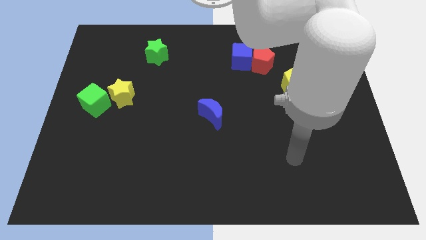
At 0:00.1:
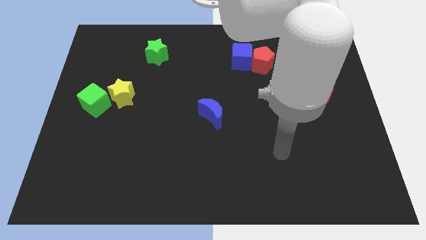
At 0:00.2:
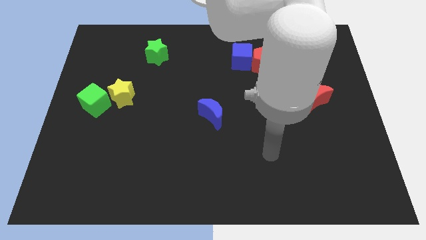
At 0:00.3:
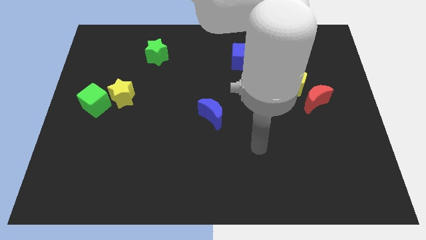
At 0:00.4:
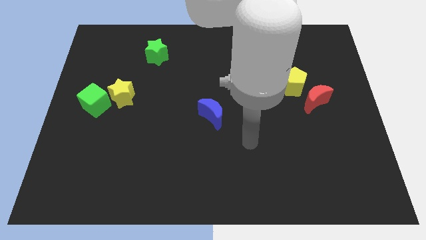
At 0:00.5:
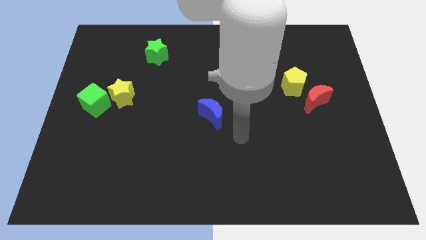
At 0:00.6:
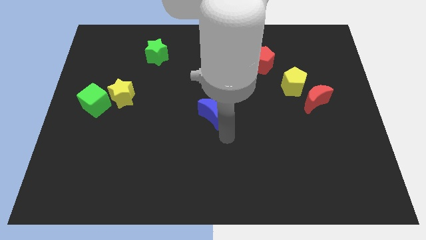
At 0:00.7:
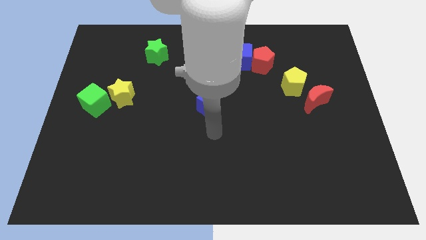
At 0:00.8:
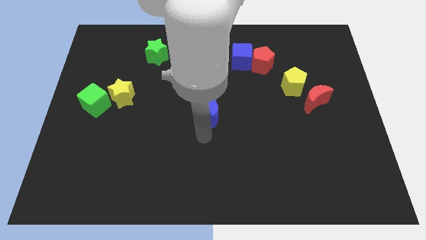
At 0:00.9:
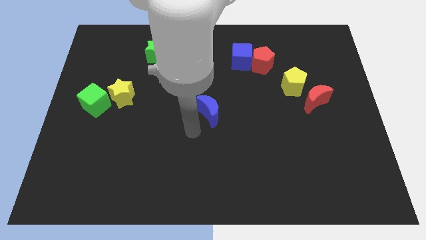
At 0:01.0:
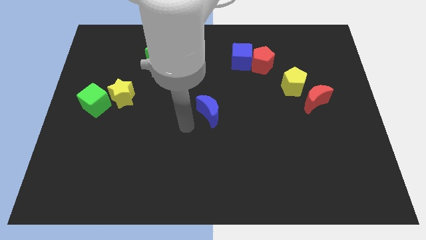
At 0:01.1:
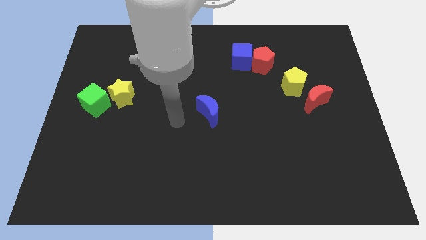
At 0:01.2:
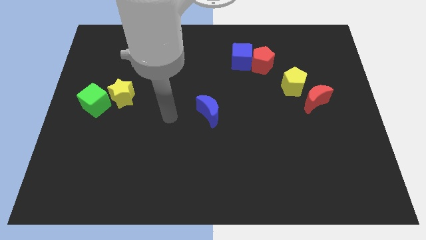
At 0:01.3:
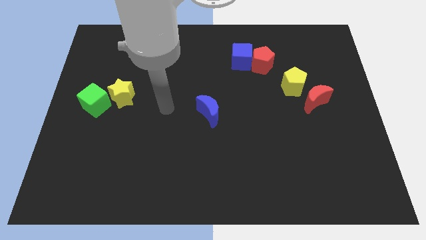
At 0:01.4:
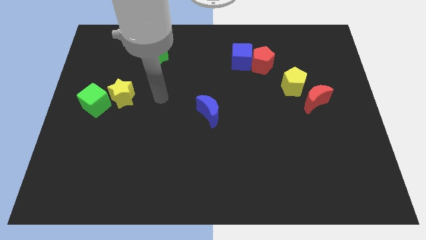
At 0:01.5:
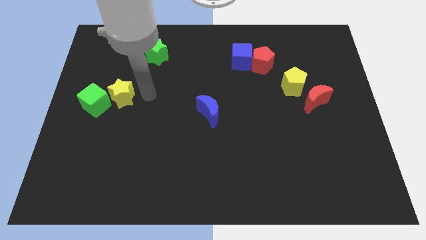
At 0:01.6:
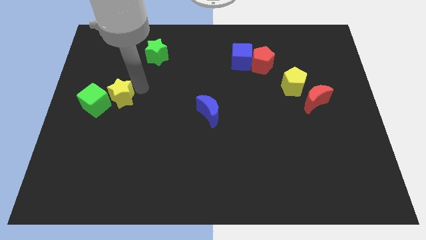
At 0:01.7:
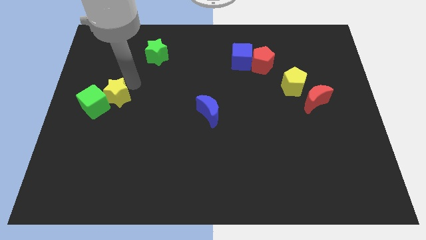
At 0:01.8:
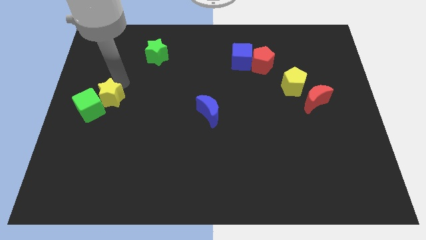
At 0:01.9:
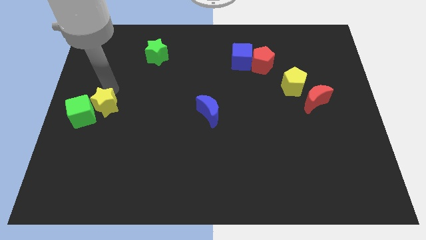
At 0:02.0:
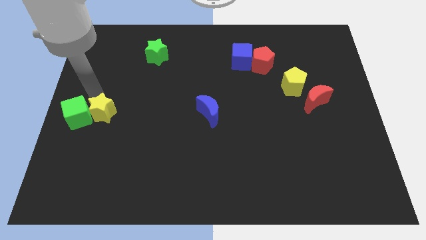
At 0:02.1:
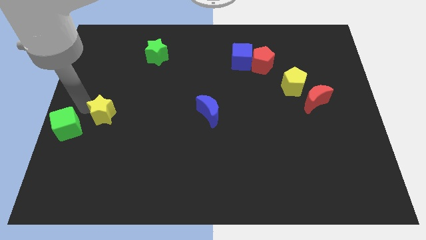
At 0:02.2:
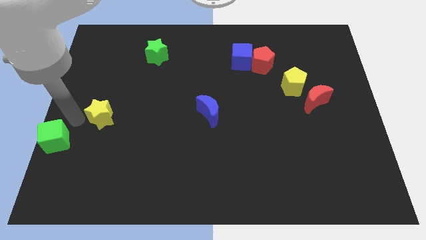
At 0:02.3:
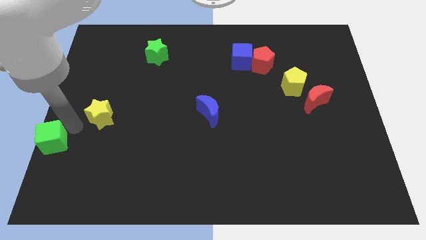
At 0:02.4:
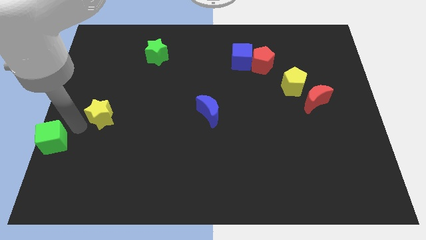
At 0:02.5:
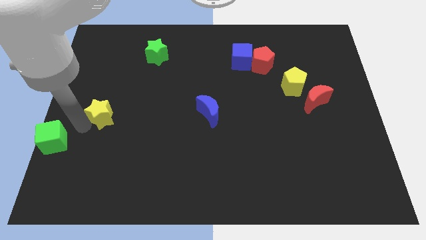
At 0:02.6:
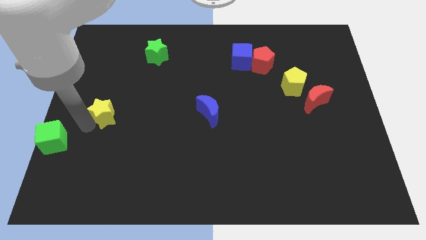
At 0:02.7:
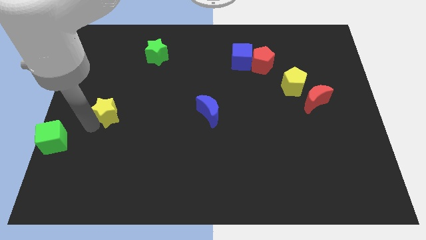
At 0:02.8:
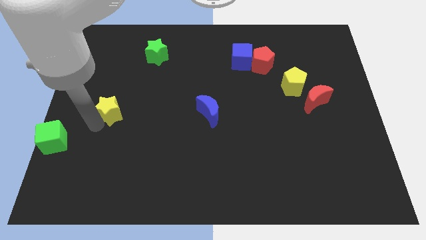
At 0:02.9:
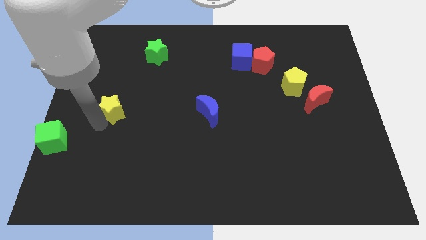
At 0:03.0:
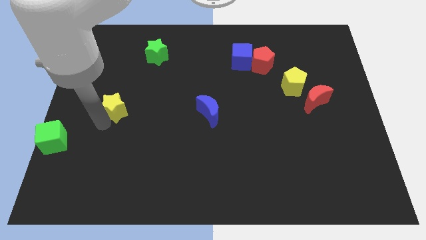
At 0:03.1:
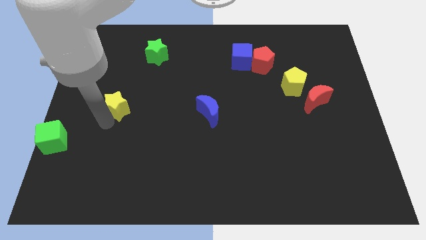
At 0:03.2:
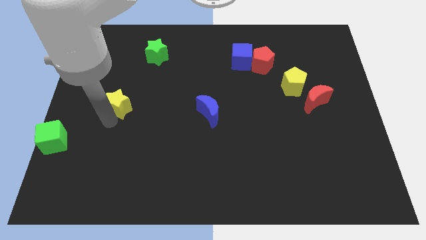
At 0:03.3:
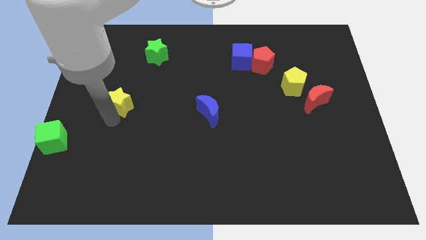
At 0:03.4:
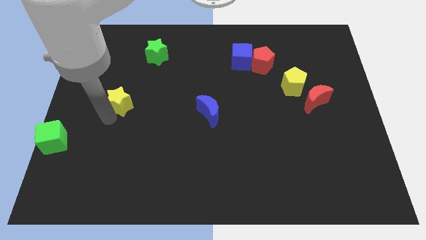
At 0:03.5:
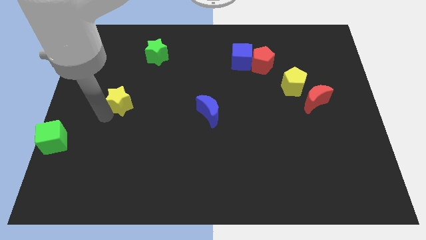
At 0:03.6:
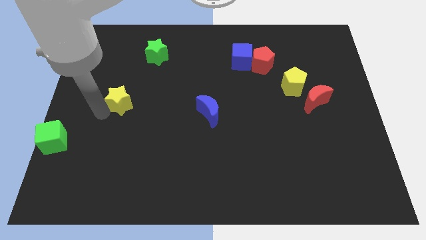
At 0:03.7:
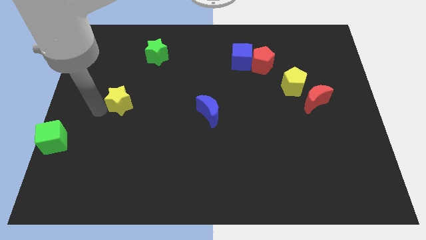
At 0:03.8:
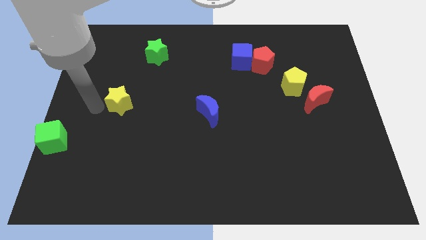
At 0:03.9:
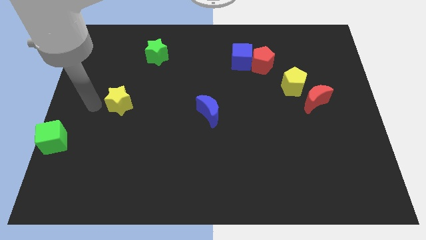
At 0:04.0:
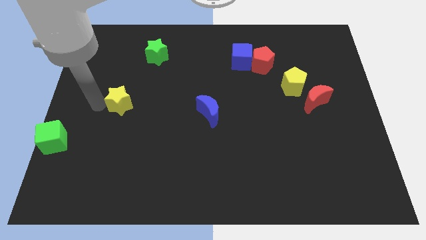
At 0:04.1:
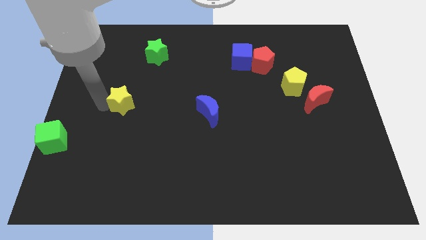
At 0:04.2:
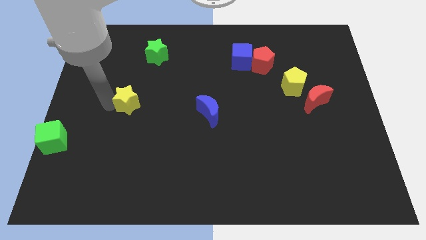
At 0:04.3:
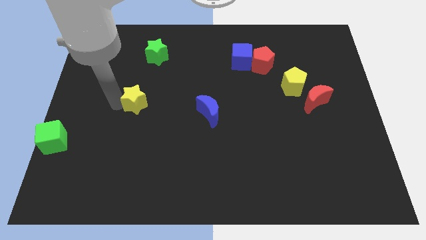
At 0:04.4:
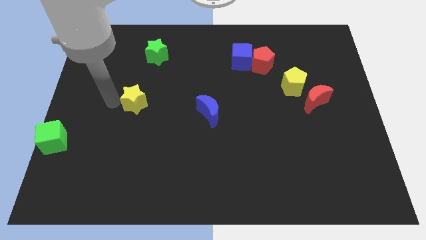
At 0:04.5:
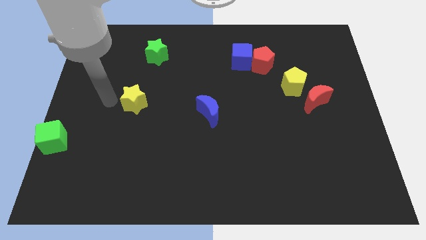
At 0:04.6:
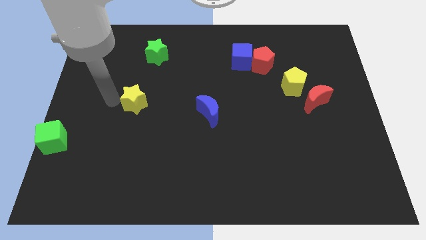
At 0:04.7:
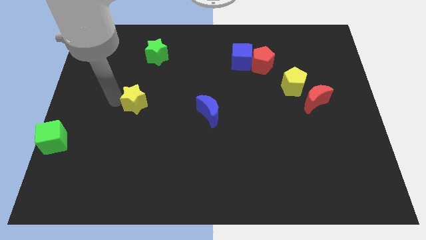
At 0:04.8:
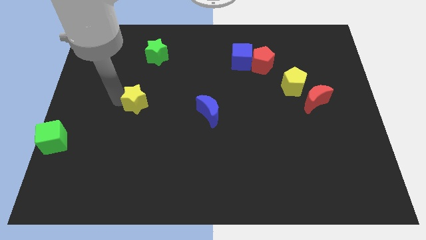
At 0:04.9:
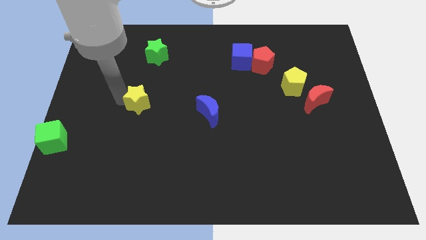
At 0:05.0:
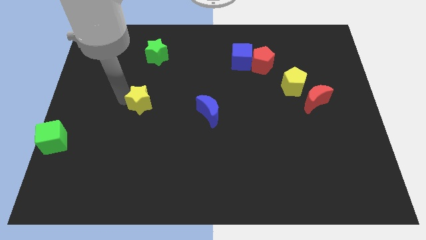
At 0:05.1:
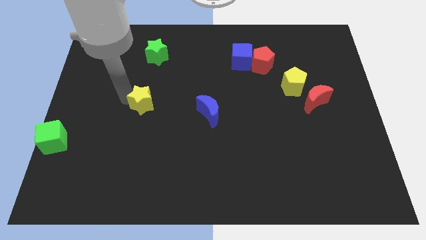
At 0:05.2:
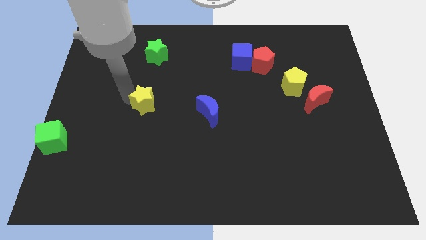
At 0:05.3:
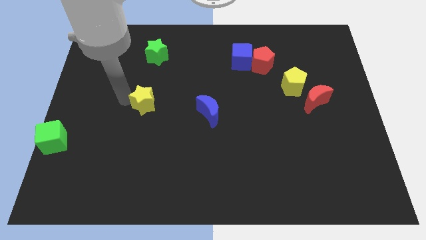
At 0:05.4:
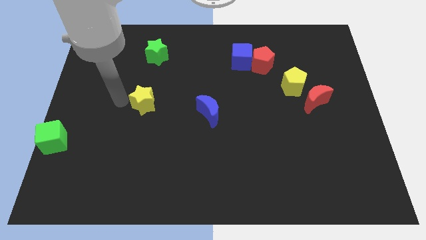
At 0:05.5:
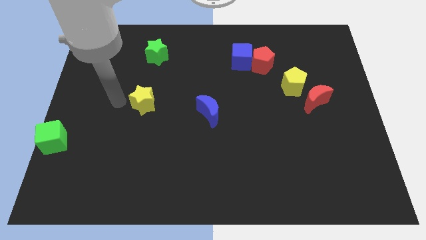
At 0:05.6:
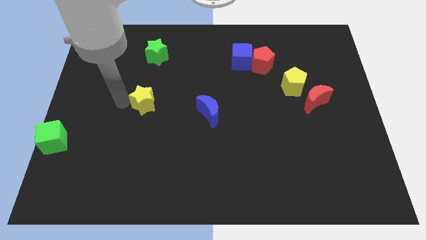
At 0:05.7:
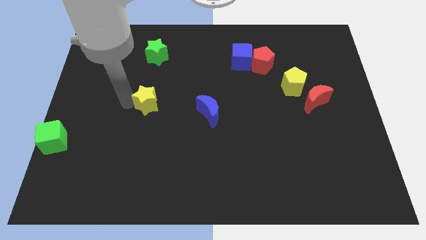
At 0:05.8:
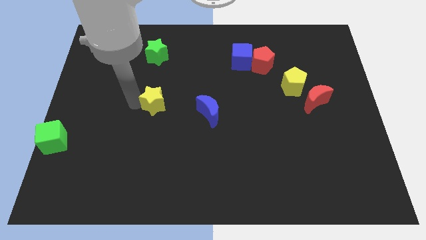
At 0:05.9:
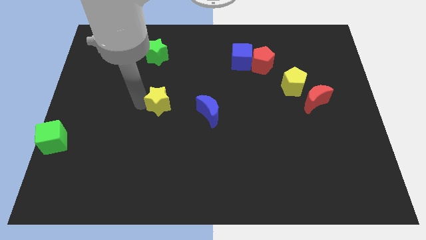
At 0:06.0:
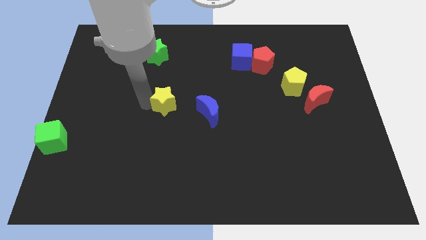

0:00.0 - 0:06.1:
move the yellow star to the middle of the board

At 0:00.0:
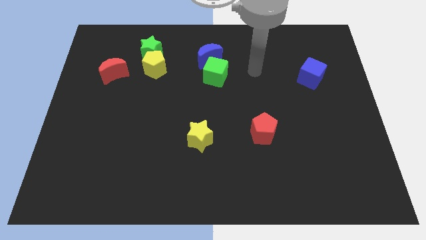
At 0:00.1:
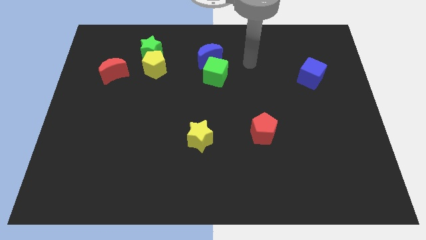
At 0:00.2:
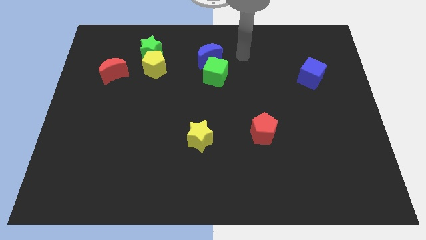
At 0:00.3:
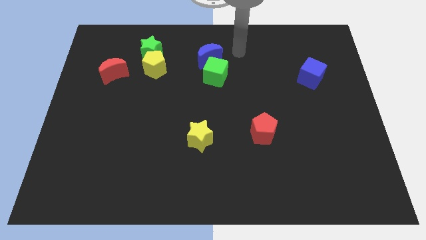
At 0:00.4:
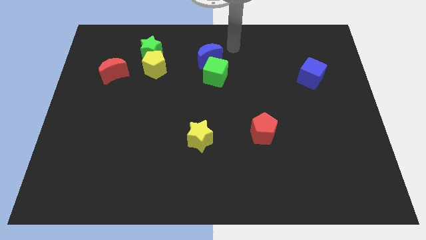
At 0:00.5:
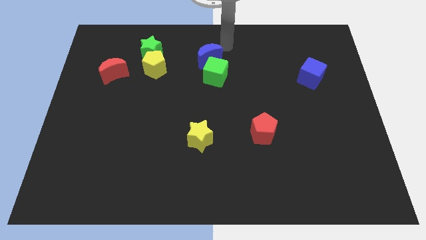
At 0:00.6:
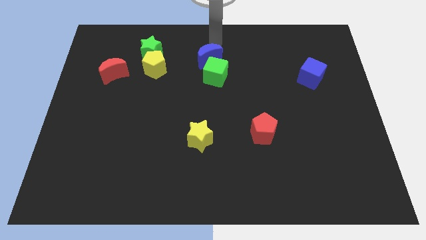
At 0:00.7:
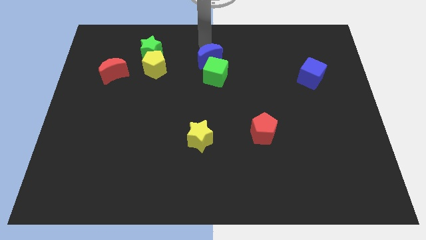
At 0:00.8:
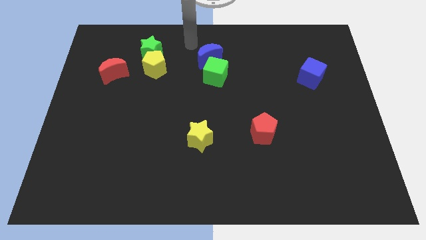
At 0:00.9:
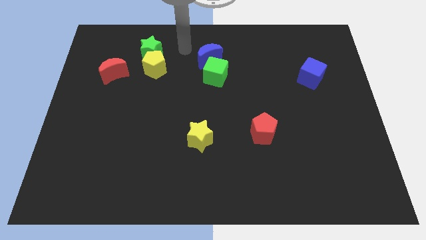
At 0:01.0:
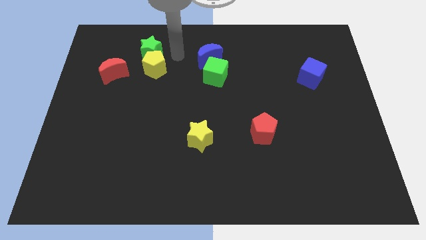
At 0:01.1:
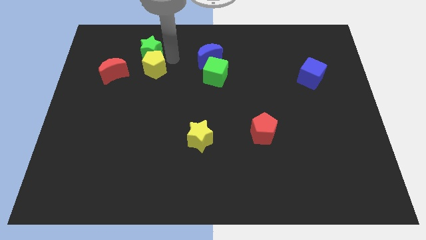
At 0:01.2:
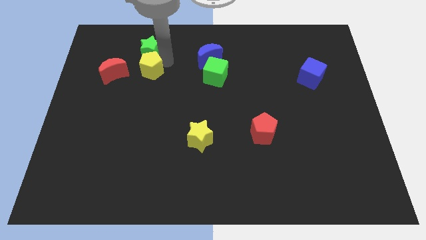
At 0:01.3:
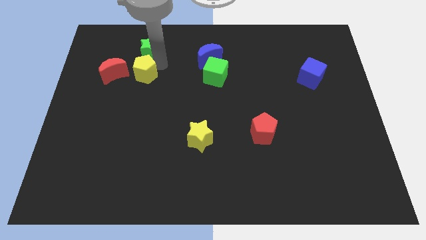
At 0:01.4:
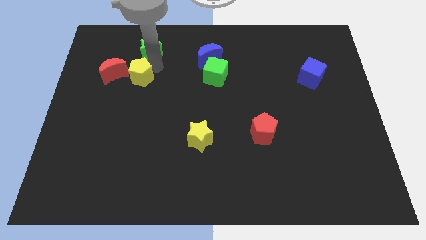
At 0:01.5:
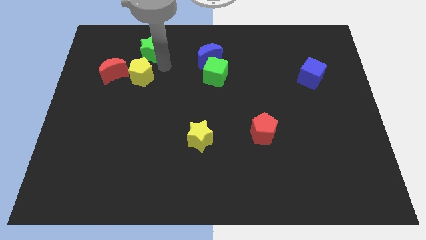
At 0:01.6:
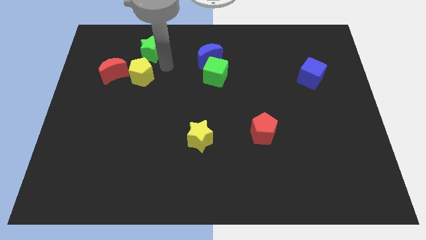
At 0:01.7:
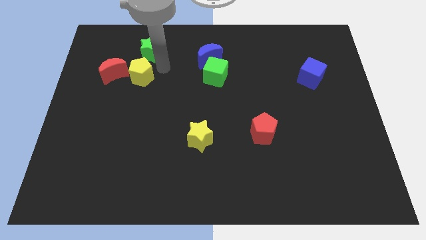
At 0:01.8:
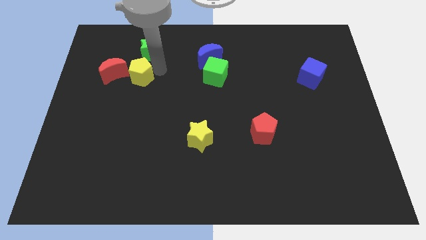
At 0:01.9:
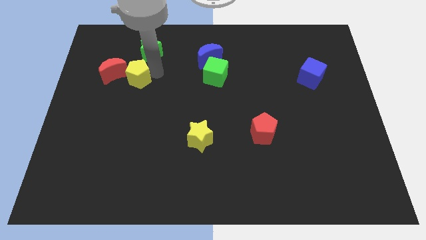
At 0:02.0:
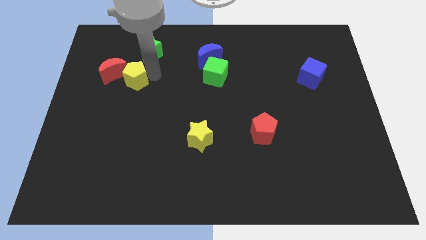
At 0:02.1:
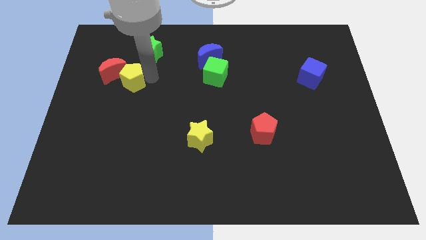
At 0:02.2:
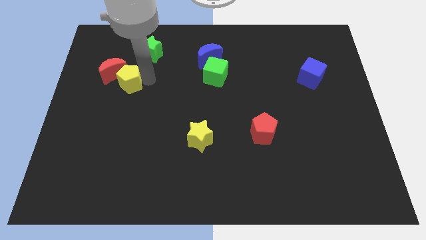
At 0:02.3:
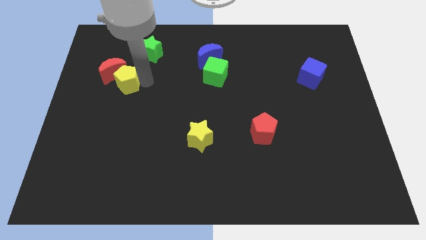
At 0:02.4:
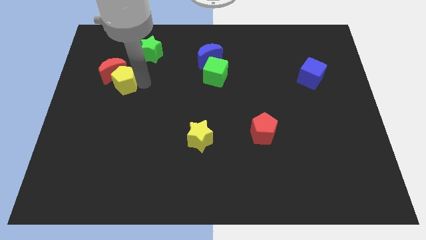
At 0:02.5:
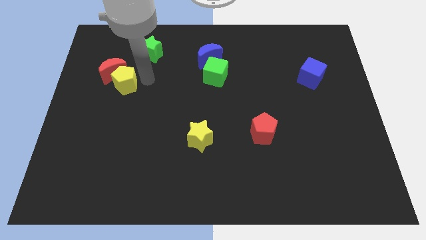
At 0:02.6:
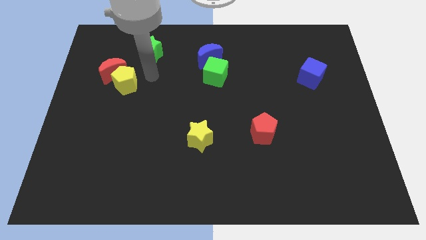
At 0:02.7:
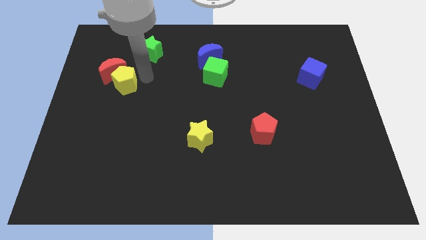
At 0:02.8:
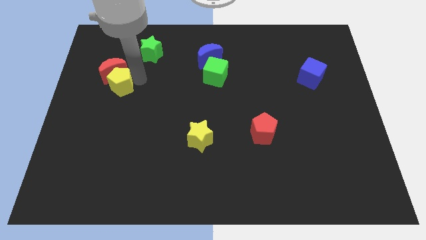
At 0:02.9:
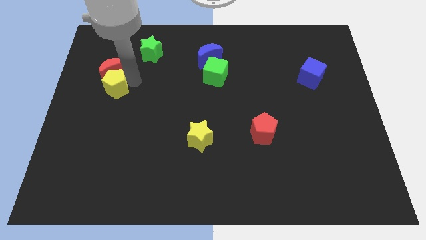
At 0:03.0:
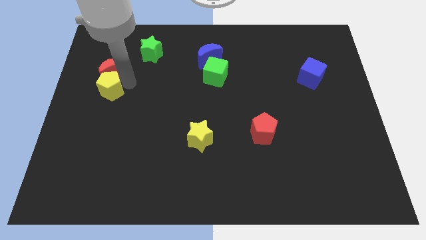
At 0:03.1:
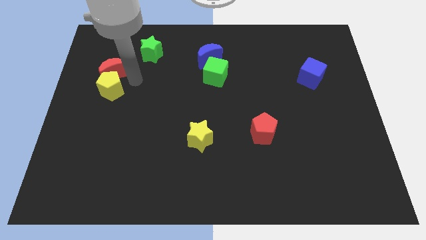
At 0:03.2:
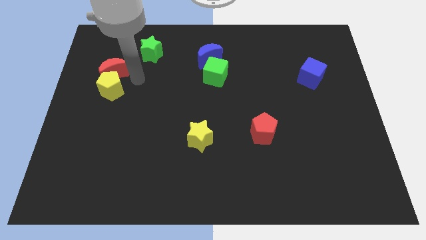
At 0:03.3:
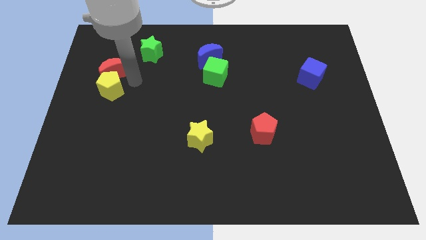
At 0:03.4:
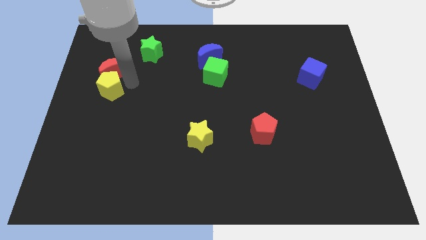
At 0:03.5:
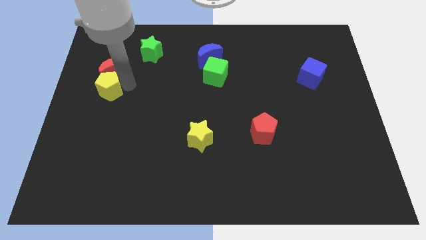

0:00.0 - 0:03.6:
move the yellow pentagon to the center left
